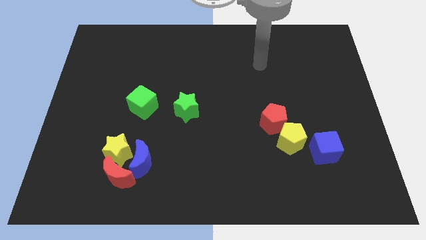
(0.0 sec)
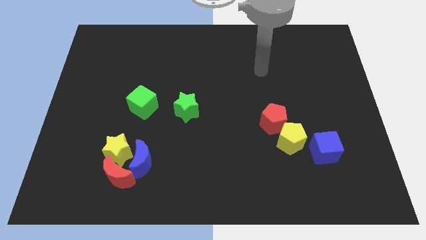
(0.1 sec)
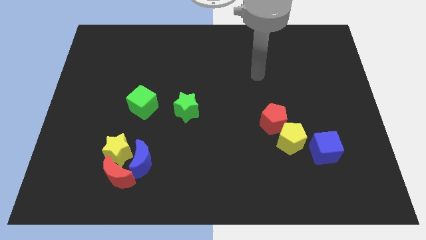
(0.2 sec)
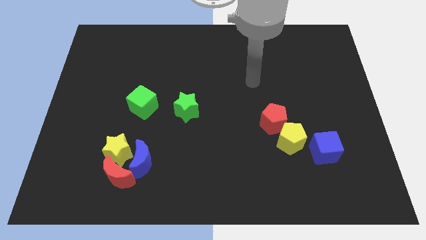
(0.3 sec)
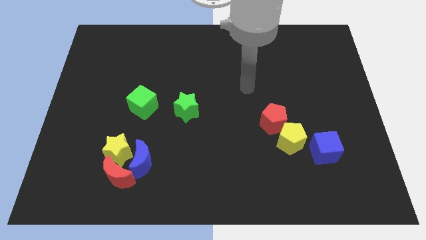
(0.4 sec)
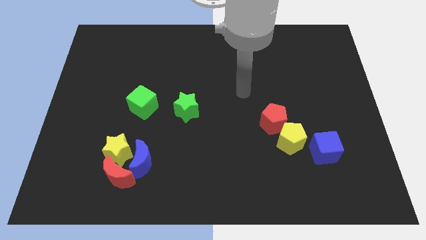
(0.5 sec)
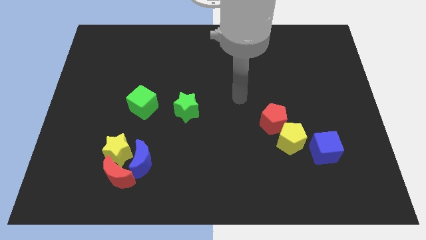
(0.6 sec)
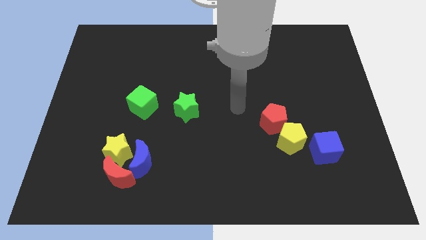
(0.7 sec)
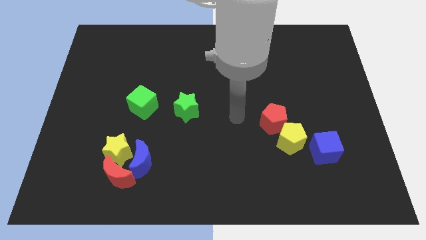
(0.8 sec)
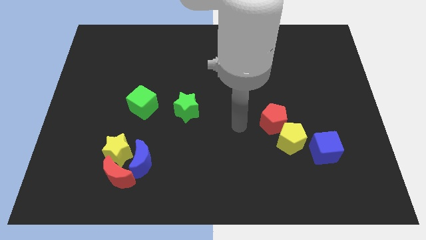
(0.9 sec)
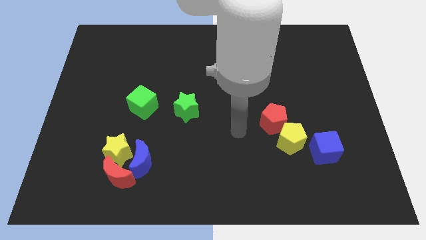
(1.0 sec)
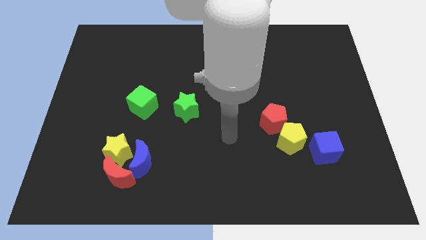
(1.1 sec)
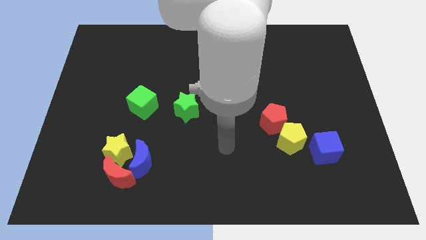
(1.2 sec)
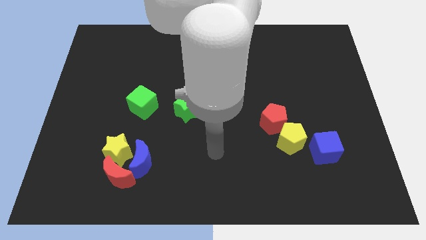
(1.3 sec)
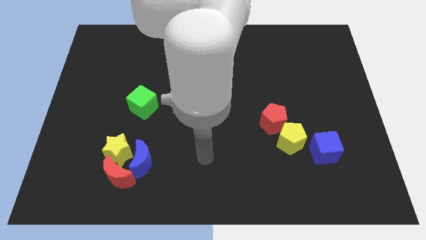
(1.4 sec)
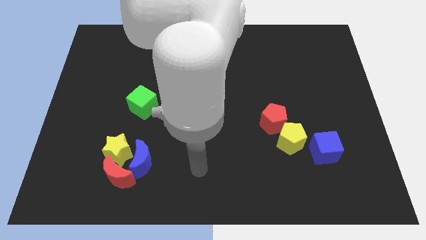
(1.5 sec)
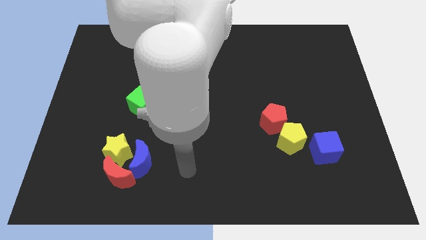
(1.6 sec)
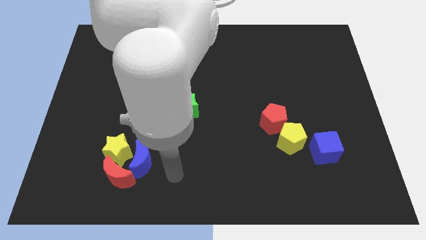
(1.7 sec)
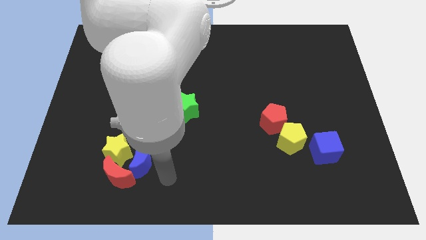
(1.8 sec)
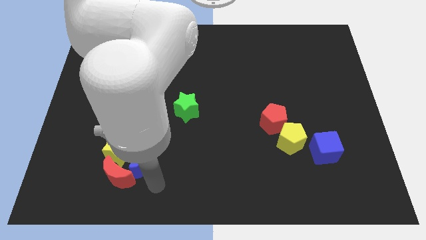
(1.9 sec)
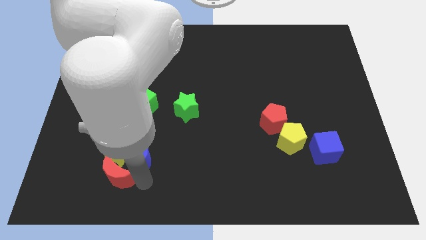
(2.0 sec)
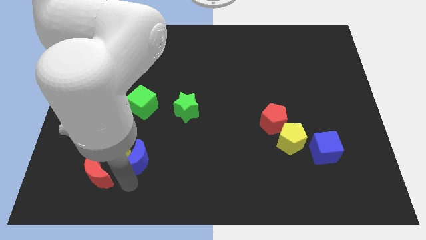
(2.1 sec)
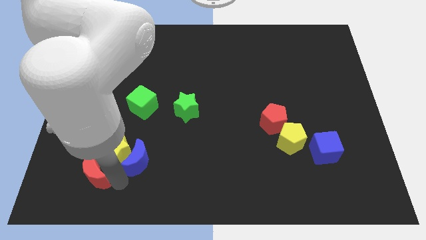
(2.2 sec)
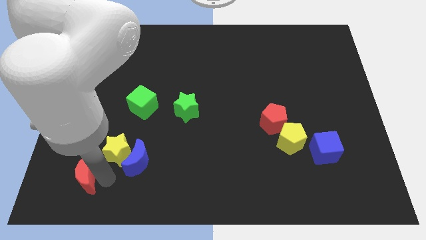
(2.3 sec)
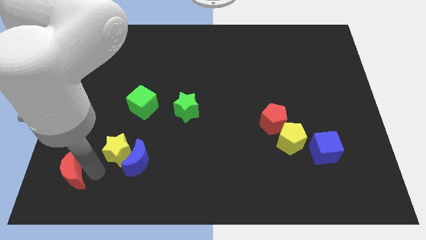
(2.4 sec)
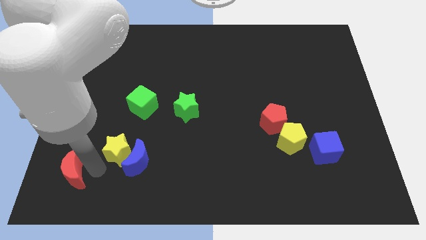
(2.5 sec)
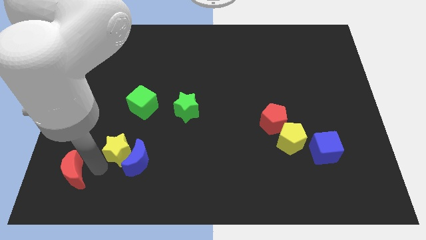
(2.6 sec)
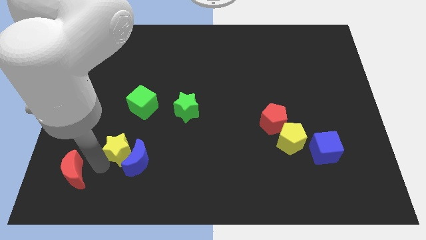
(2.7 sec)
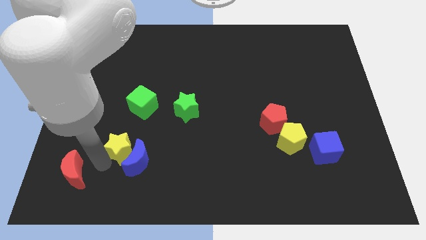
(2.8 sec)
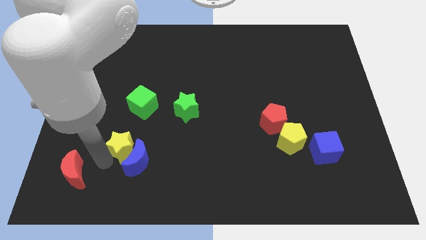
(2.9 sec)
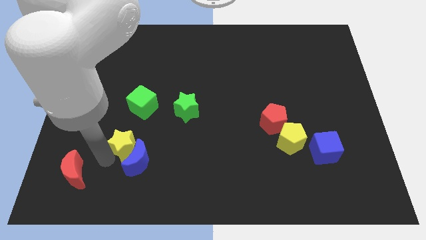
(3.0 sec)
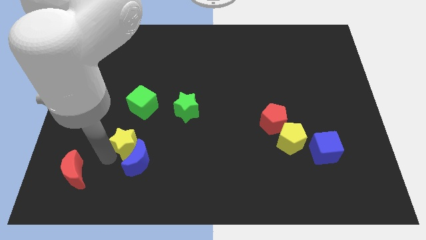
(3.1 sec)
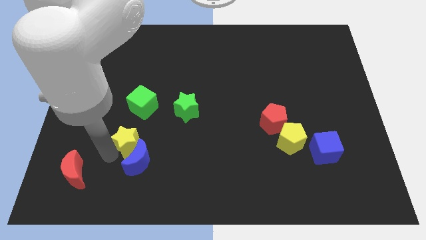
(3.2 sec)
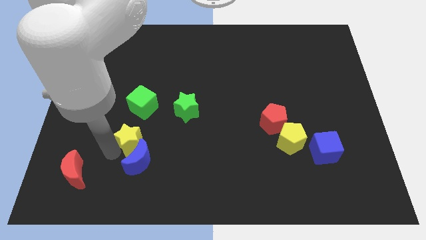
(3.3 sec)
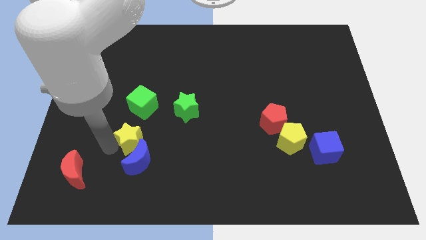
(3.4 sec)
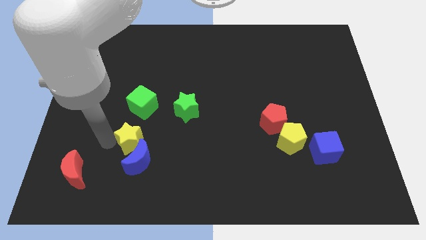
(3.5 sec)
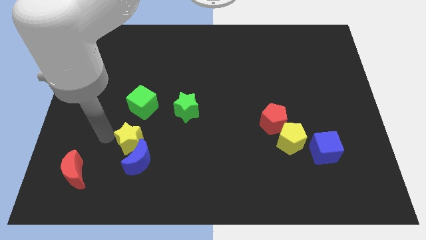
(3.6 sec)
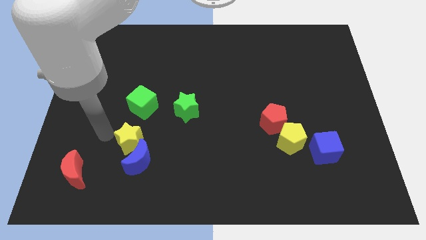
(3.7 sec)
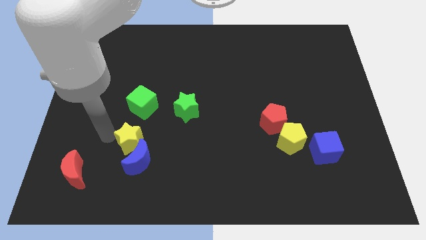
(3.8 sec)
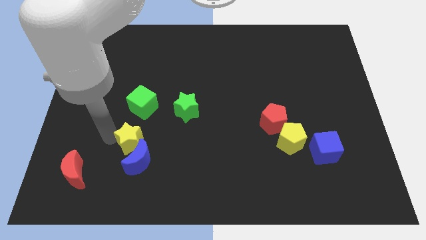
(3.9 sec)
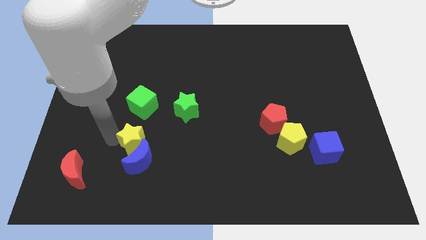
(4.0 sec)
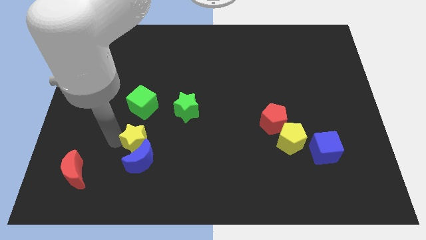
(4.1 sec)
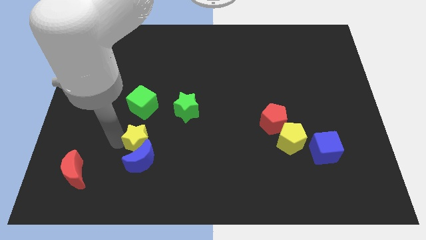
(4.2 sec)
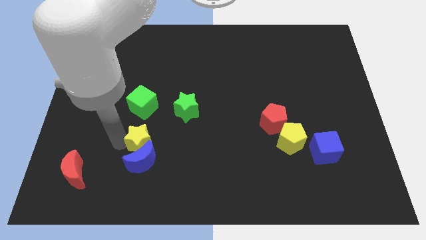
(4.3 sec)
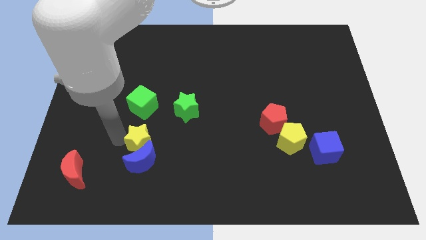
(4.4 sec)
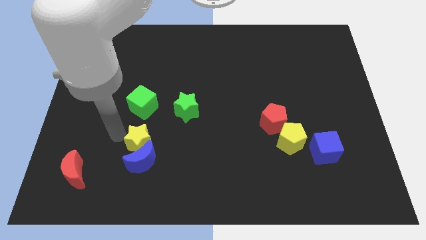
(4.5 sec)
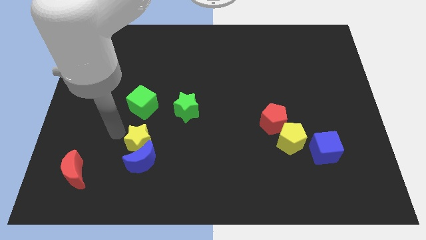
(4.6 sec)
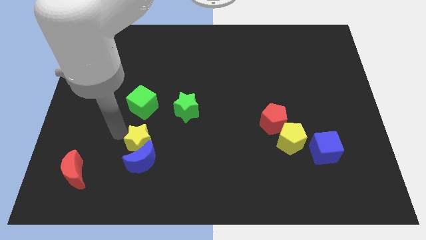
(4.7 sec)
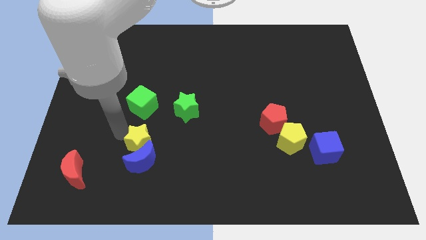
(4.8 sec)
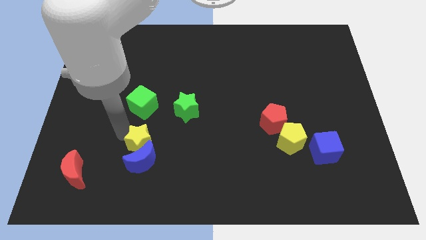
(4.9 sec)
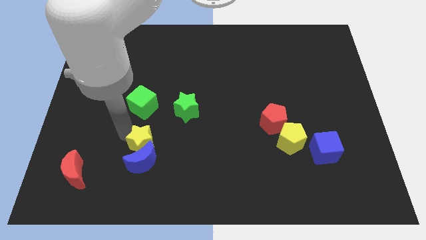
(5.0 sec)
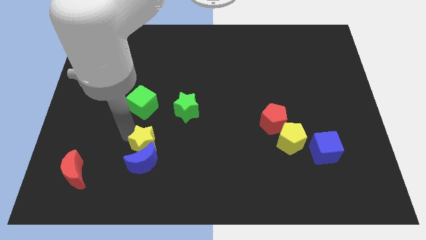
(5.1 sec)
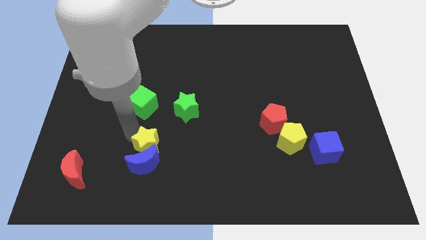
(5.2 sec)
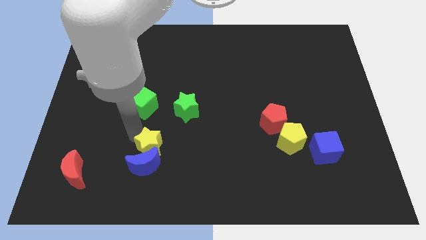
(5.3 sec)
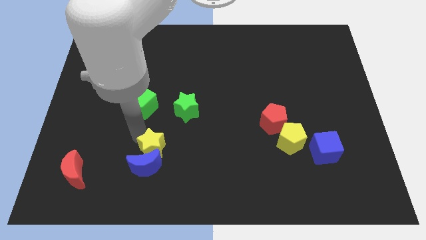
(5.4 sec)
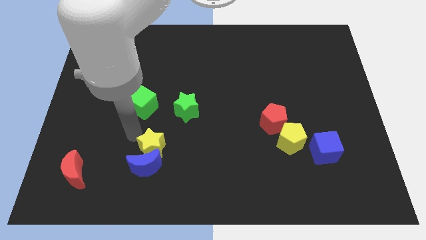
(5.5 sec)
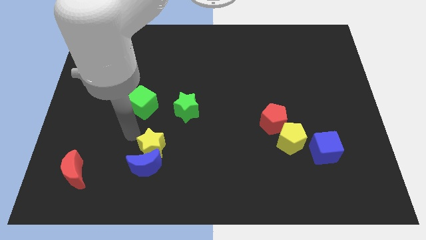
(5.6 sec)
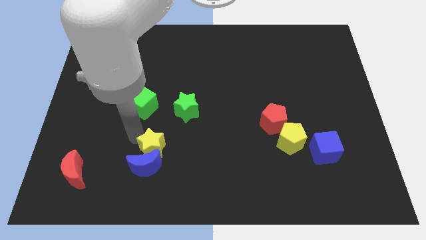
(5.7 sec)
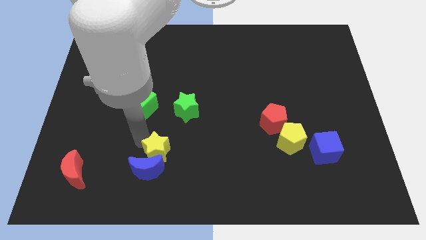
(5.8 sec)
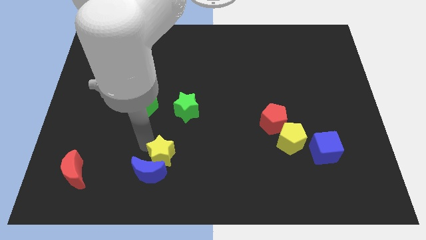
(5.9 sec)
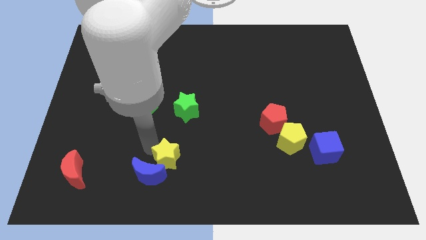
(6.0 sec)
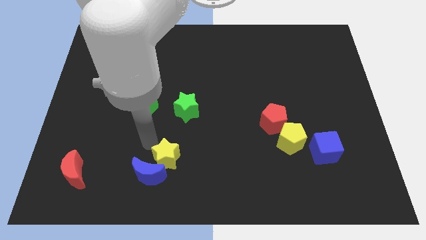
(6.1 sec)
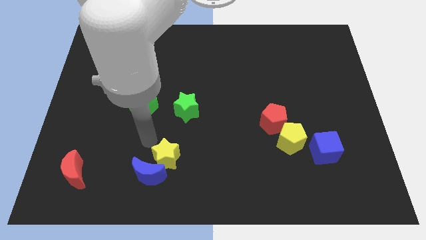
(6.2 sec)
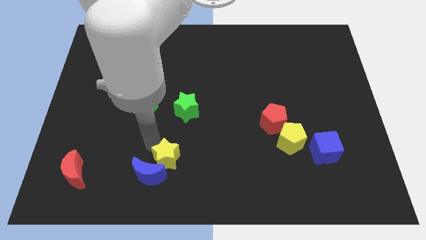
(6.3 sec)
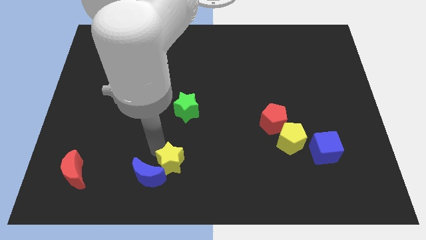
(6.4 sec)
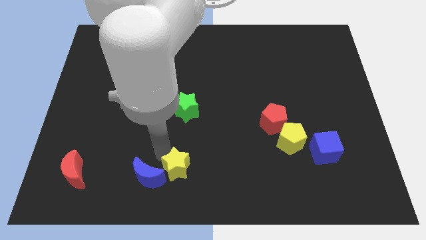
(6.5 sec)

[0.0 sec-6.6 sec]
push the yellow star to the bottom

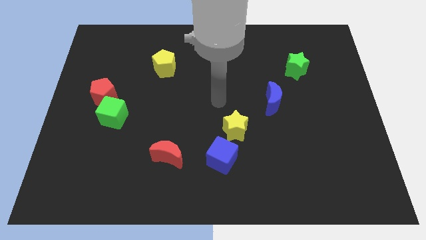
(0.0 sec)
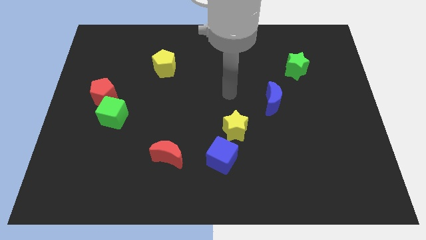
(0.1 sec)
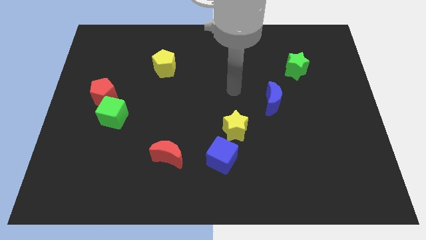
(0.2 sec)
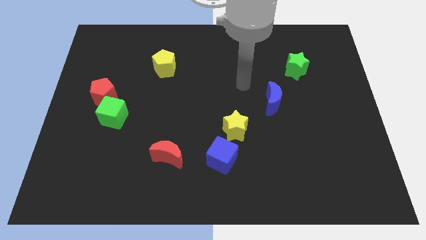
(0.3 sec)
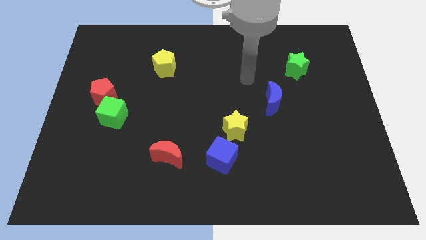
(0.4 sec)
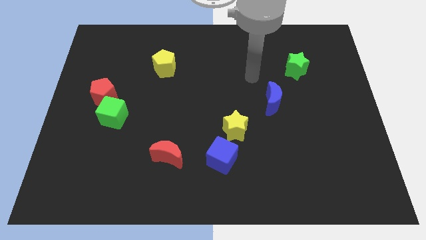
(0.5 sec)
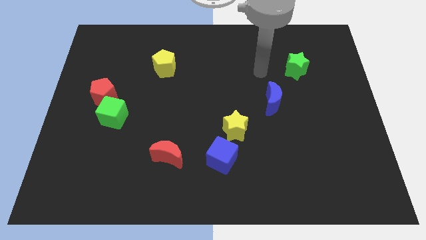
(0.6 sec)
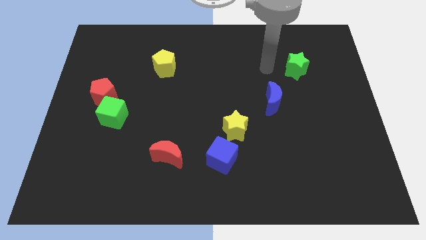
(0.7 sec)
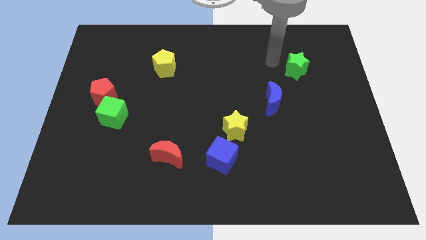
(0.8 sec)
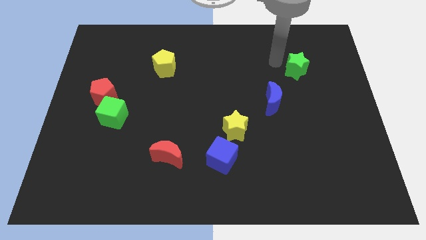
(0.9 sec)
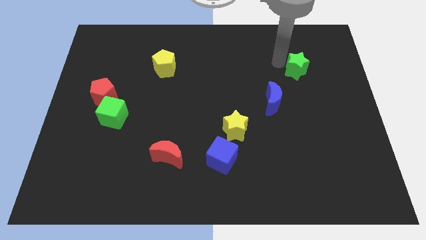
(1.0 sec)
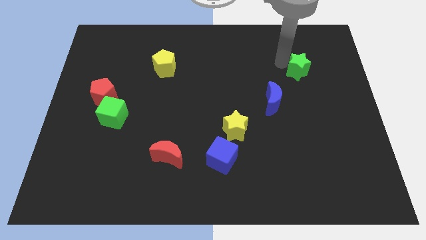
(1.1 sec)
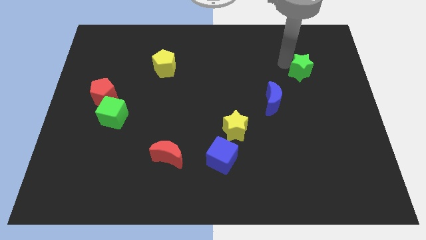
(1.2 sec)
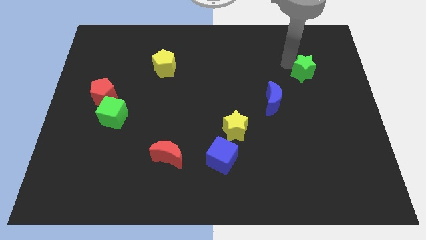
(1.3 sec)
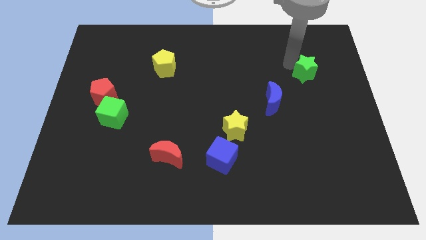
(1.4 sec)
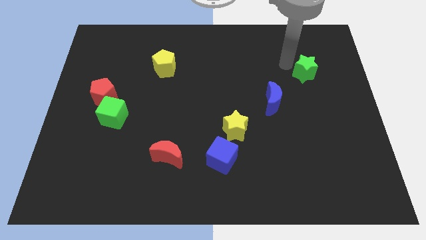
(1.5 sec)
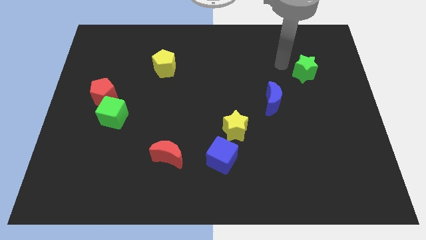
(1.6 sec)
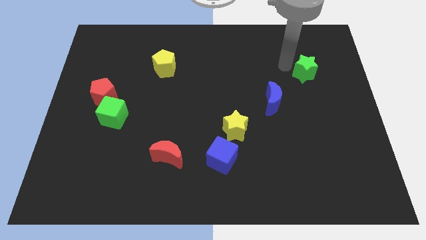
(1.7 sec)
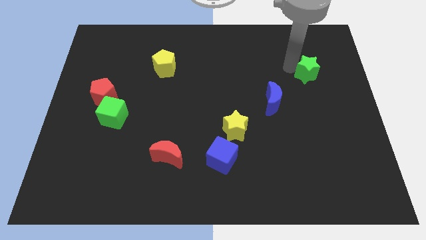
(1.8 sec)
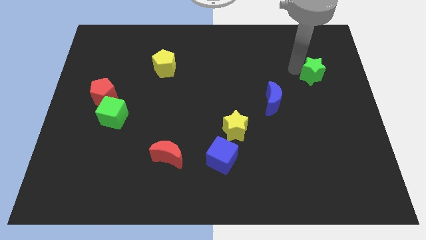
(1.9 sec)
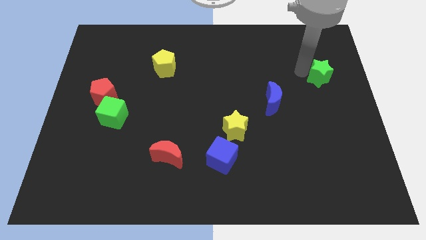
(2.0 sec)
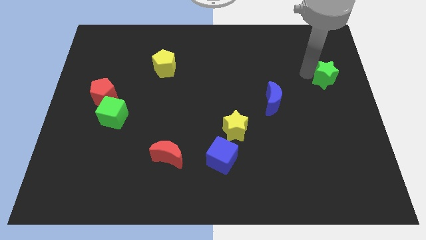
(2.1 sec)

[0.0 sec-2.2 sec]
put the green star to the center right
